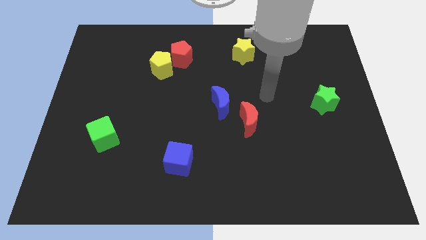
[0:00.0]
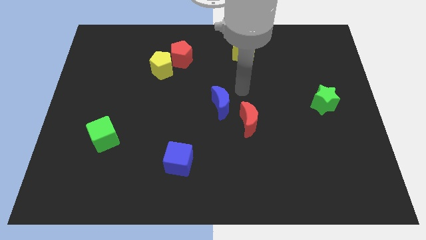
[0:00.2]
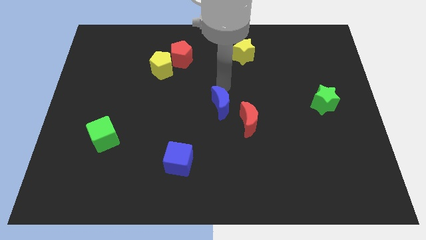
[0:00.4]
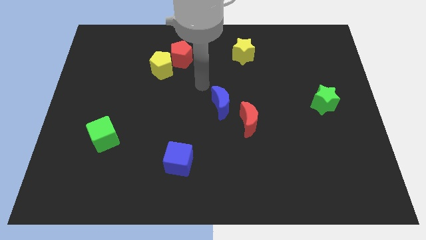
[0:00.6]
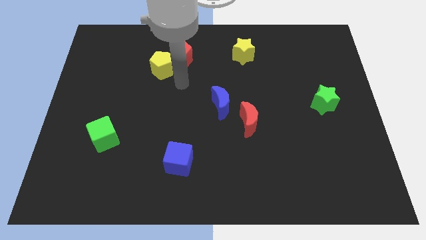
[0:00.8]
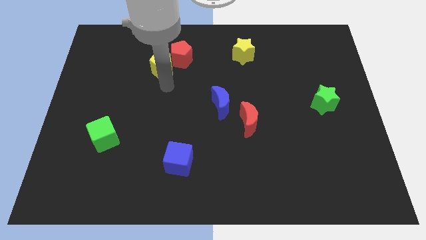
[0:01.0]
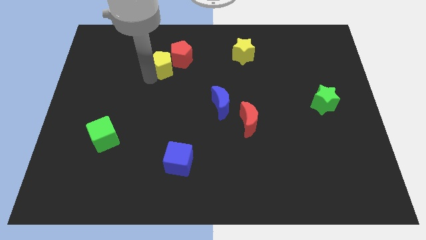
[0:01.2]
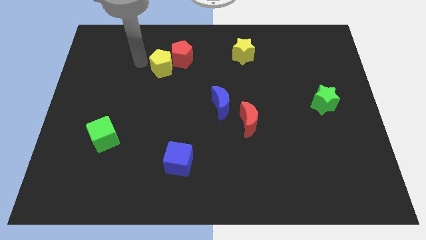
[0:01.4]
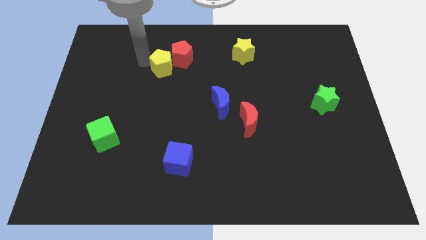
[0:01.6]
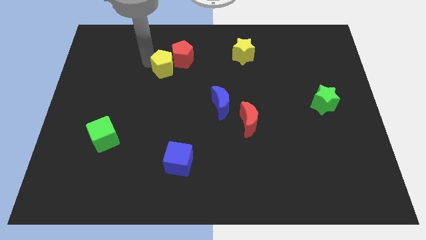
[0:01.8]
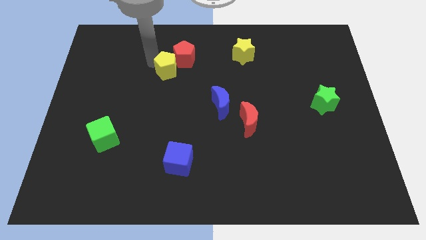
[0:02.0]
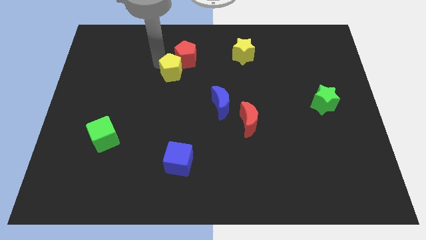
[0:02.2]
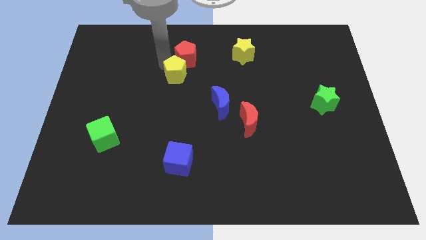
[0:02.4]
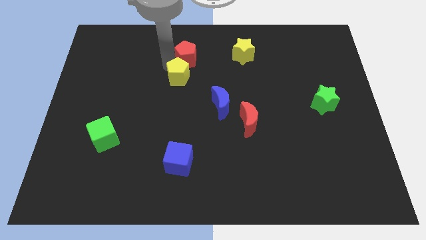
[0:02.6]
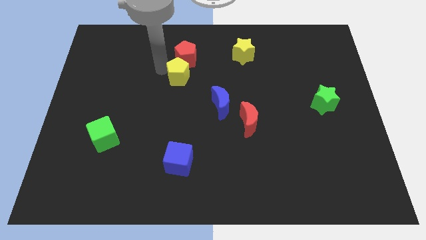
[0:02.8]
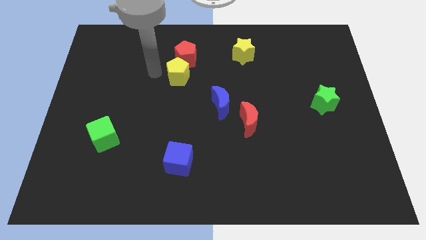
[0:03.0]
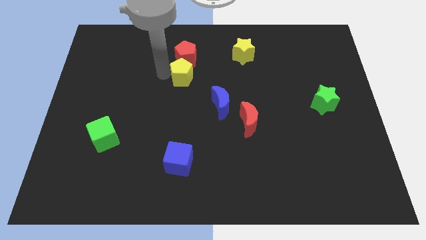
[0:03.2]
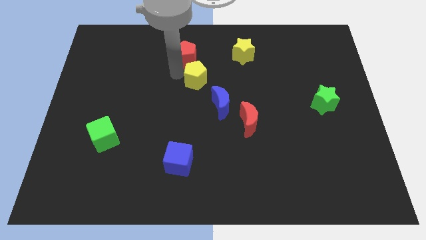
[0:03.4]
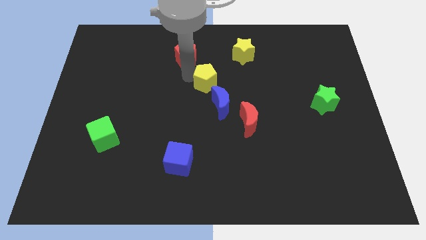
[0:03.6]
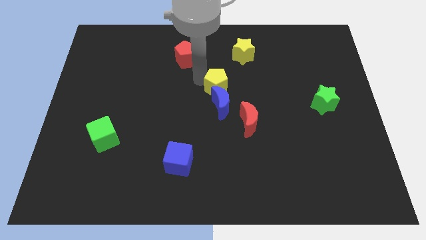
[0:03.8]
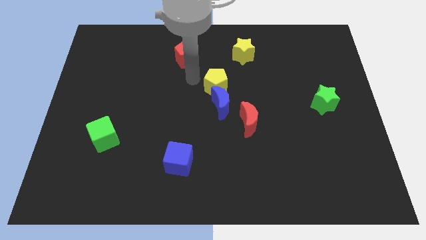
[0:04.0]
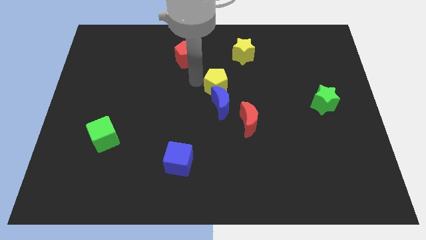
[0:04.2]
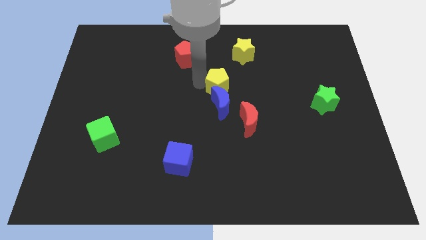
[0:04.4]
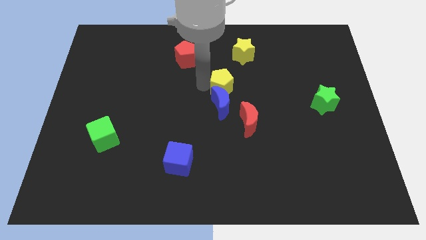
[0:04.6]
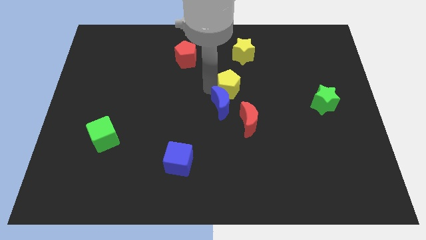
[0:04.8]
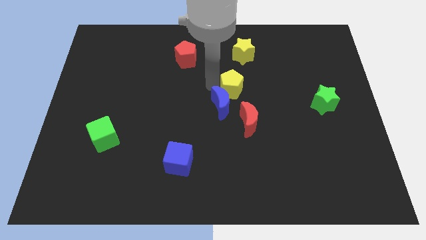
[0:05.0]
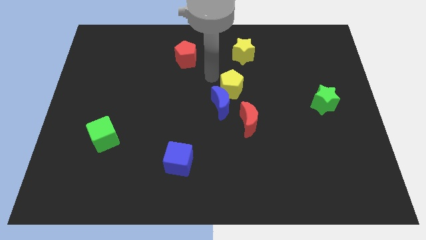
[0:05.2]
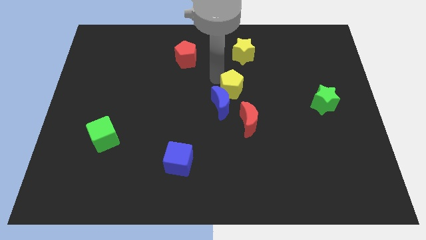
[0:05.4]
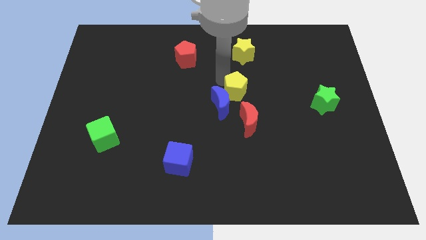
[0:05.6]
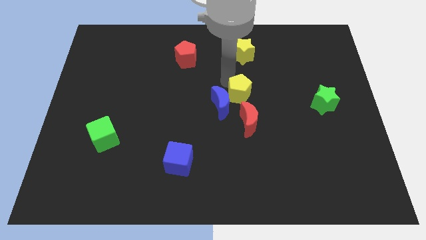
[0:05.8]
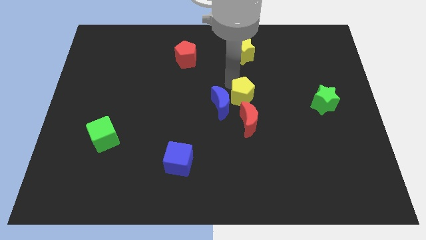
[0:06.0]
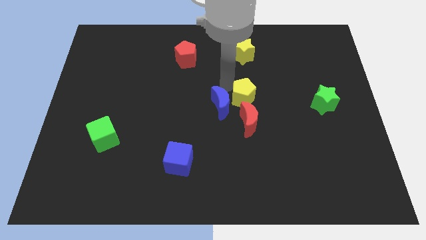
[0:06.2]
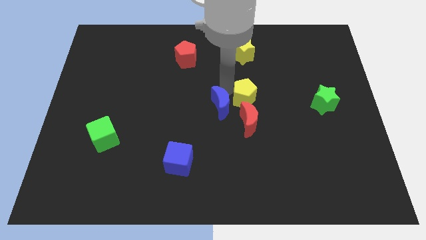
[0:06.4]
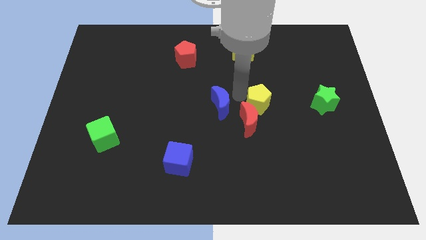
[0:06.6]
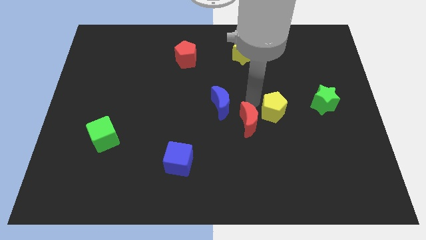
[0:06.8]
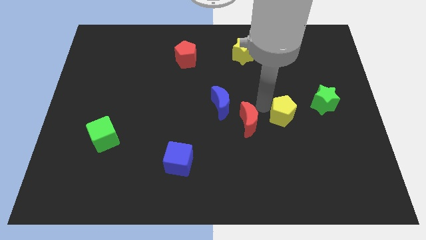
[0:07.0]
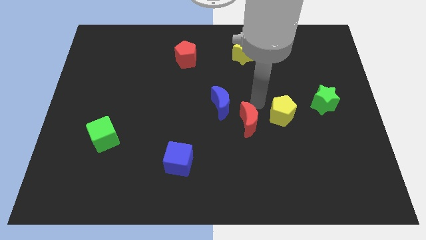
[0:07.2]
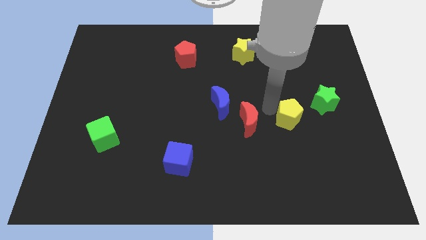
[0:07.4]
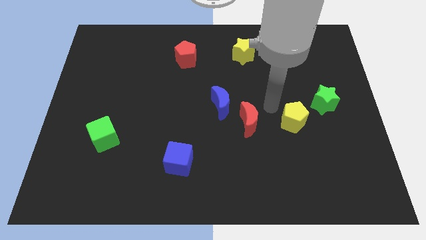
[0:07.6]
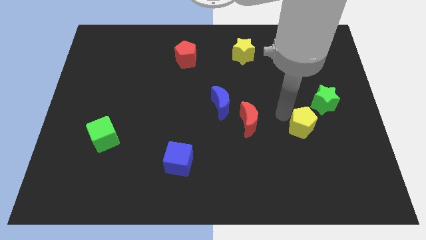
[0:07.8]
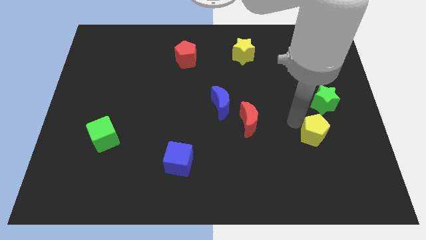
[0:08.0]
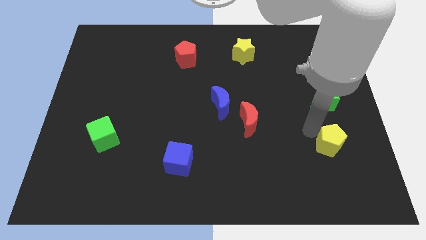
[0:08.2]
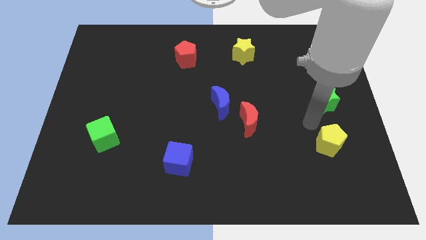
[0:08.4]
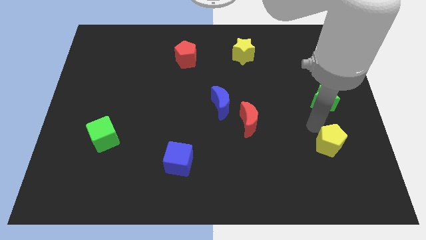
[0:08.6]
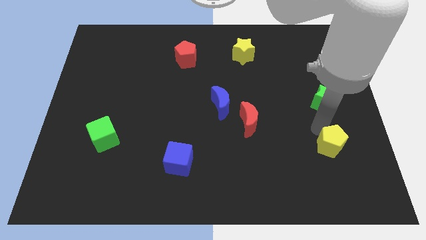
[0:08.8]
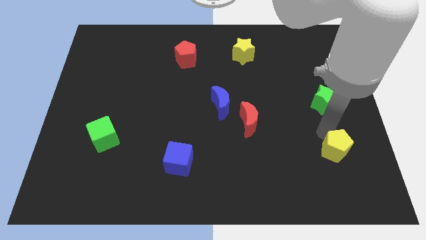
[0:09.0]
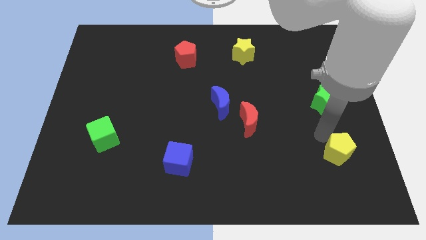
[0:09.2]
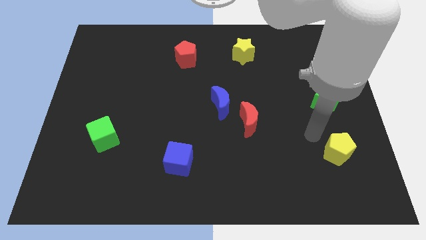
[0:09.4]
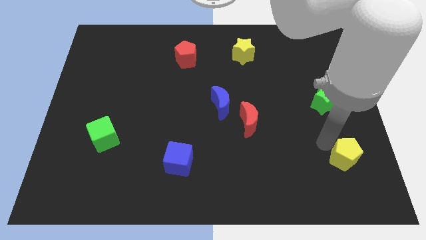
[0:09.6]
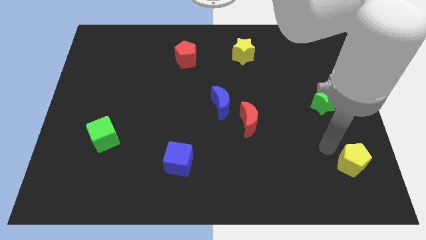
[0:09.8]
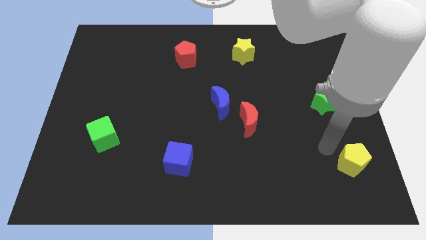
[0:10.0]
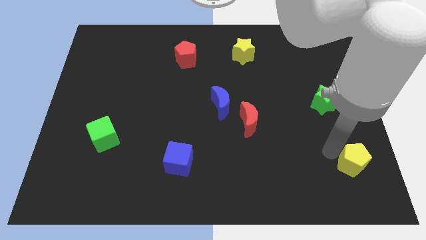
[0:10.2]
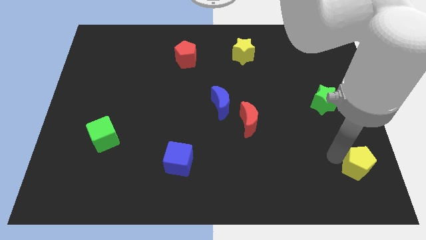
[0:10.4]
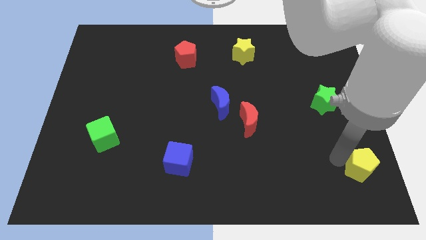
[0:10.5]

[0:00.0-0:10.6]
push the yellow pentagon to the bottom right corner
